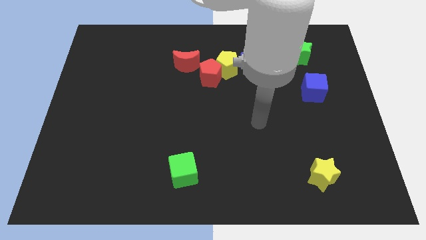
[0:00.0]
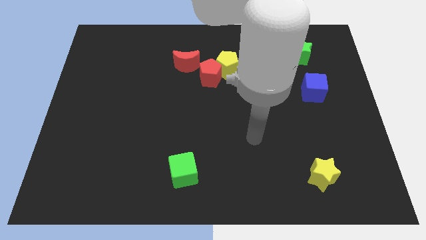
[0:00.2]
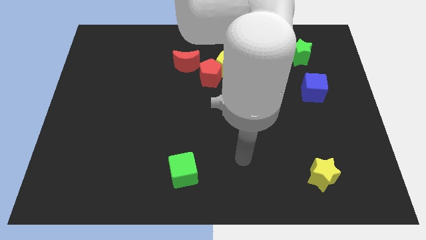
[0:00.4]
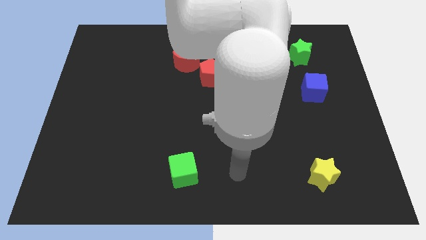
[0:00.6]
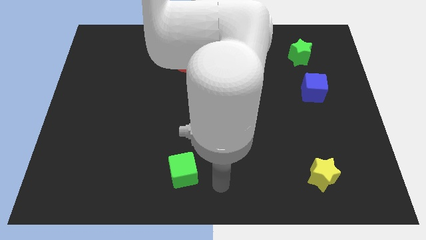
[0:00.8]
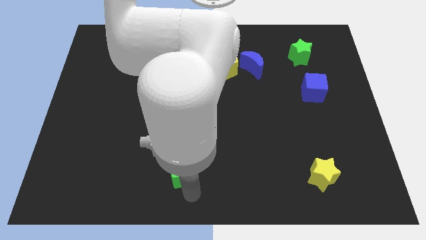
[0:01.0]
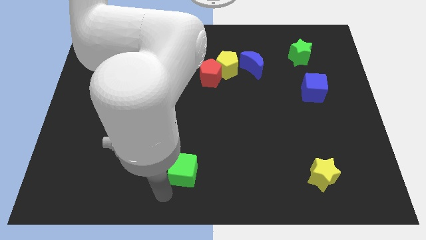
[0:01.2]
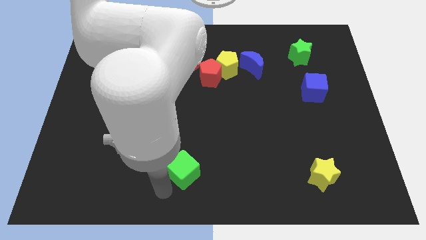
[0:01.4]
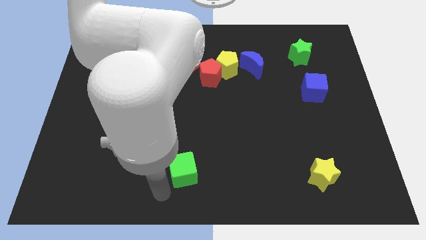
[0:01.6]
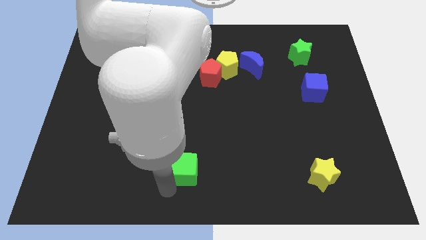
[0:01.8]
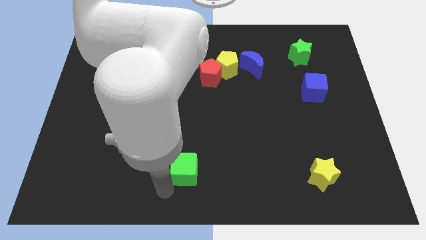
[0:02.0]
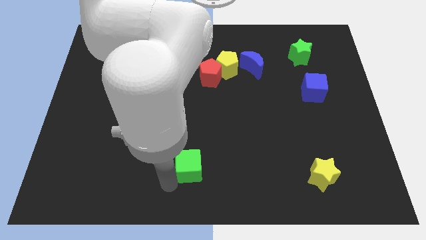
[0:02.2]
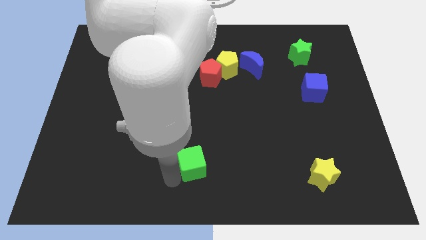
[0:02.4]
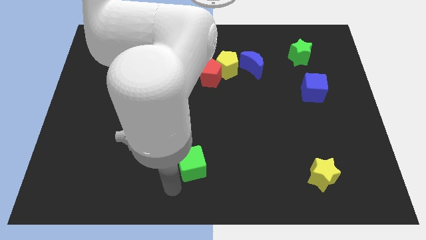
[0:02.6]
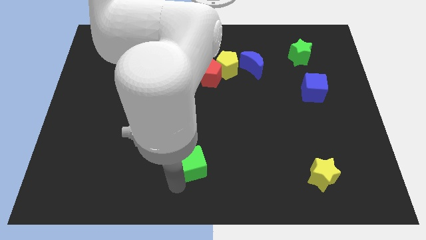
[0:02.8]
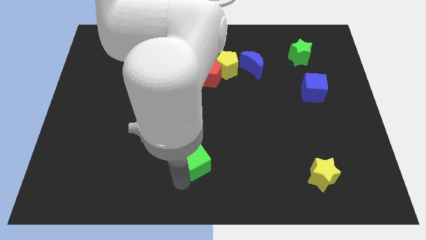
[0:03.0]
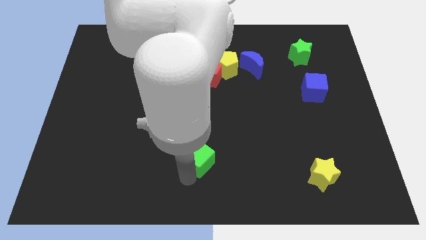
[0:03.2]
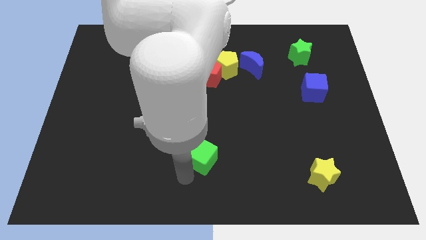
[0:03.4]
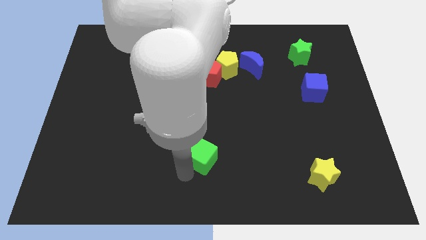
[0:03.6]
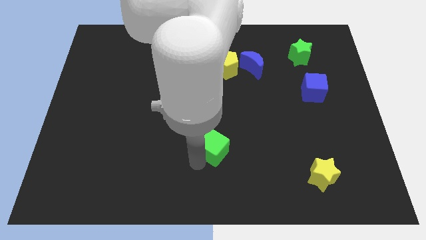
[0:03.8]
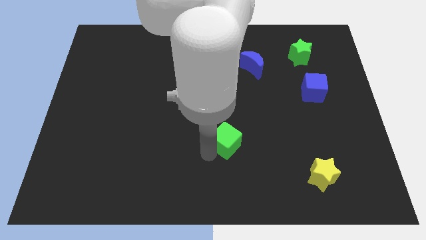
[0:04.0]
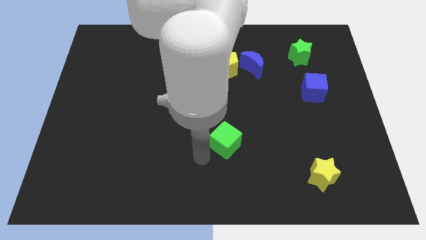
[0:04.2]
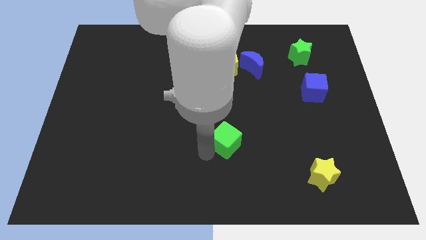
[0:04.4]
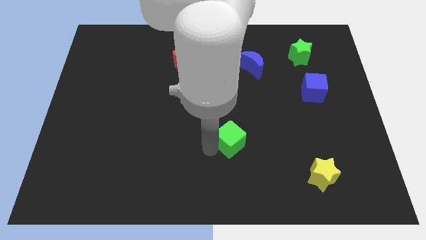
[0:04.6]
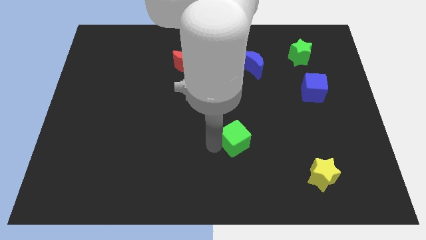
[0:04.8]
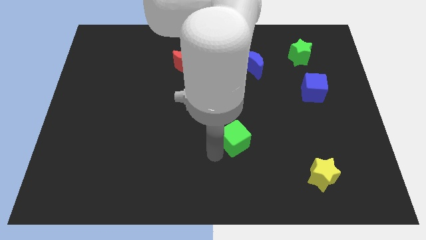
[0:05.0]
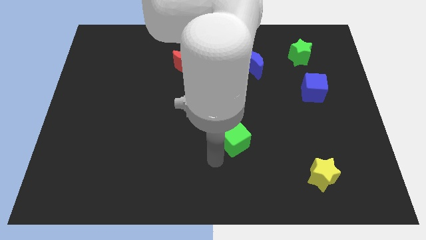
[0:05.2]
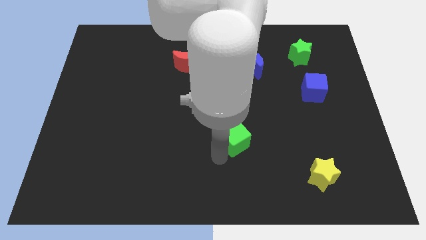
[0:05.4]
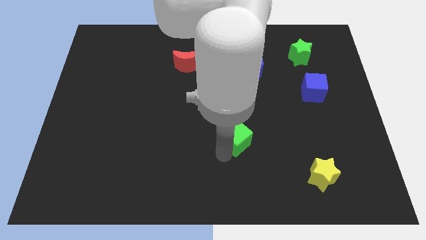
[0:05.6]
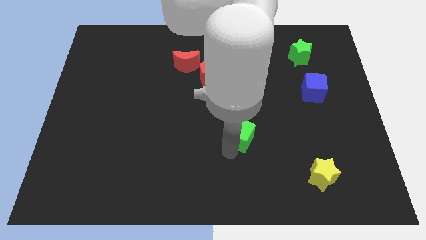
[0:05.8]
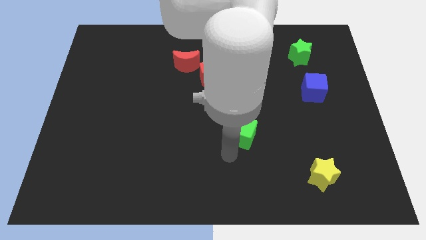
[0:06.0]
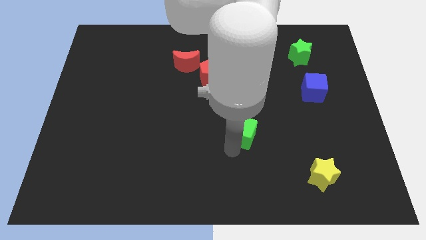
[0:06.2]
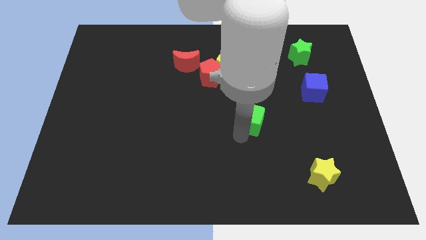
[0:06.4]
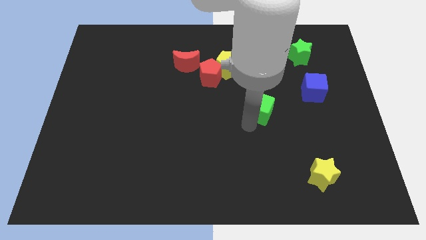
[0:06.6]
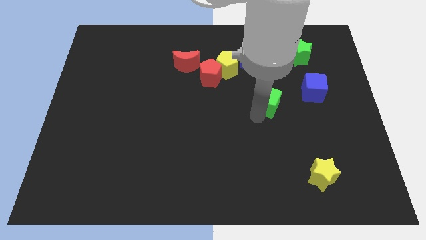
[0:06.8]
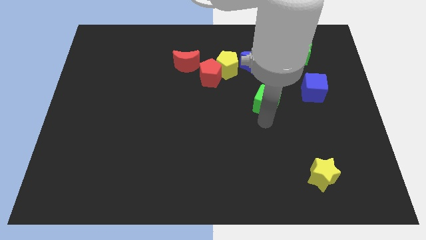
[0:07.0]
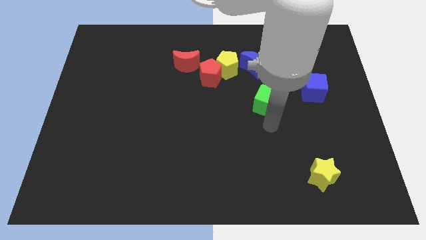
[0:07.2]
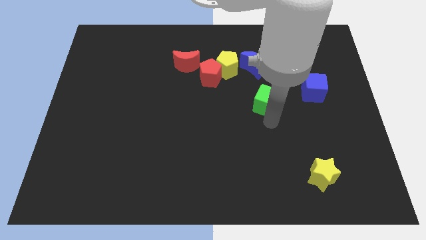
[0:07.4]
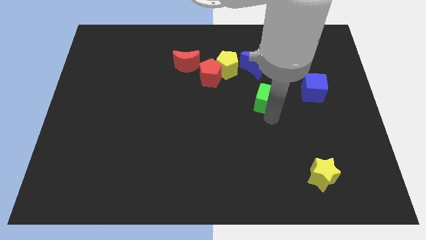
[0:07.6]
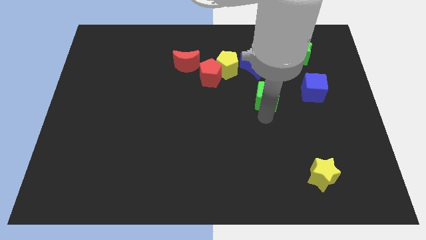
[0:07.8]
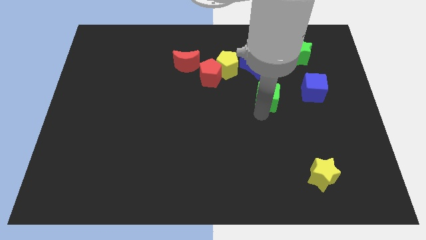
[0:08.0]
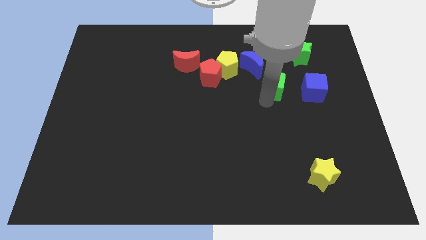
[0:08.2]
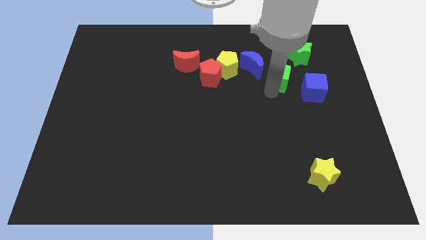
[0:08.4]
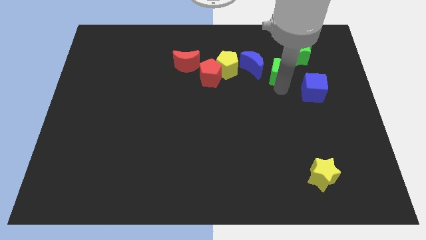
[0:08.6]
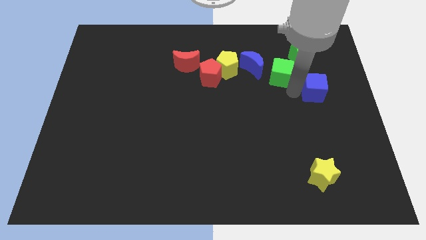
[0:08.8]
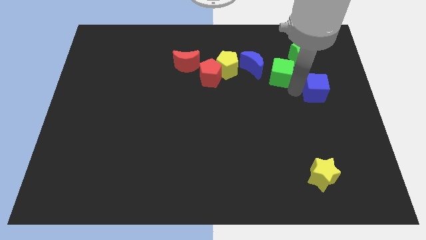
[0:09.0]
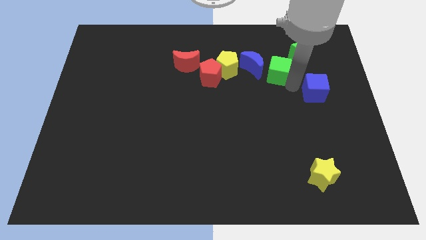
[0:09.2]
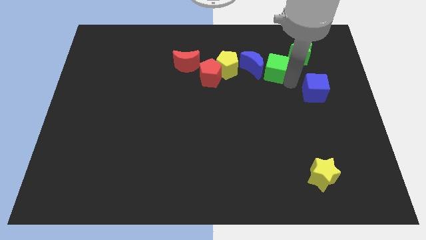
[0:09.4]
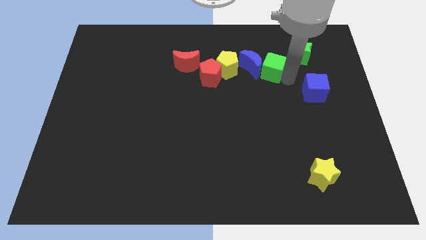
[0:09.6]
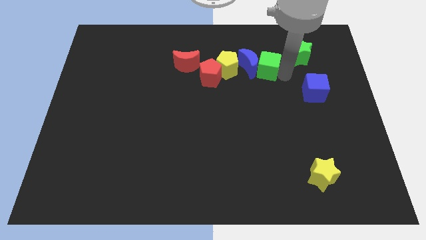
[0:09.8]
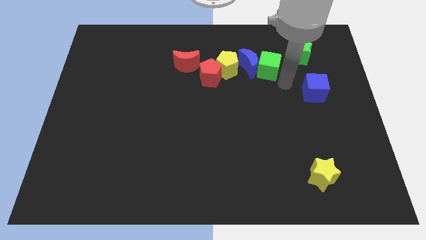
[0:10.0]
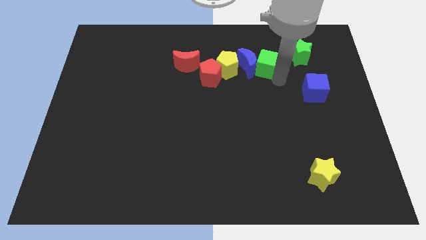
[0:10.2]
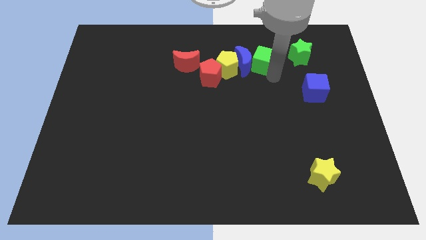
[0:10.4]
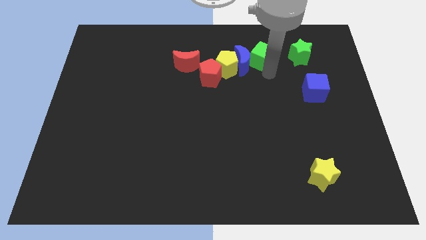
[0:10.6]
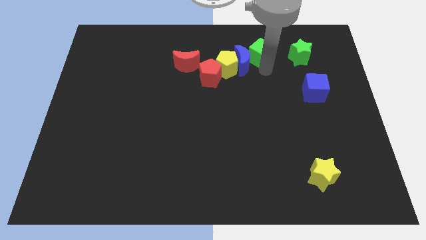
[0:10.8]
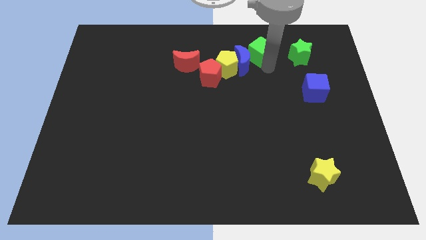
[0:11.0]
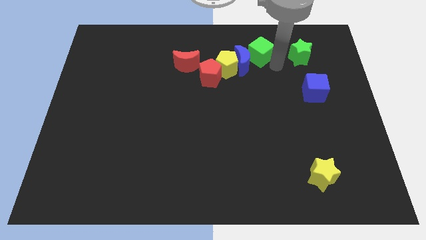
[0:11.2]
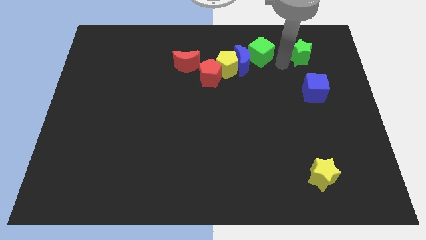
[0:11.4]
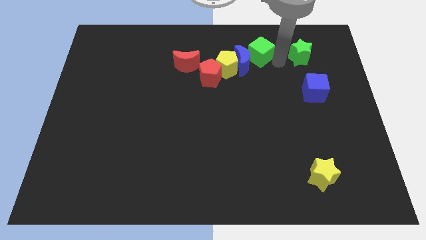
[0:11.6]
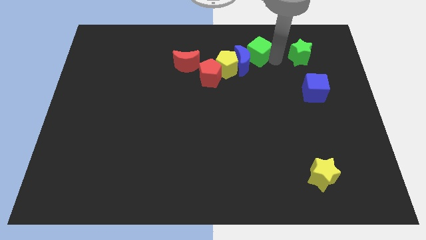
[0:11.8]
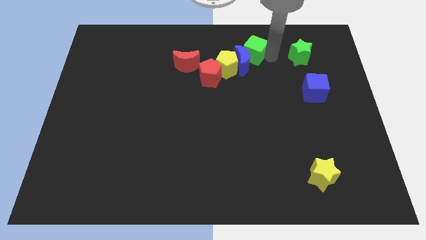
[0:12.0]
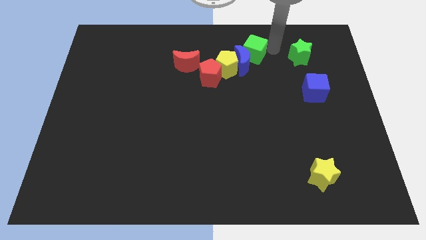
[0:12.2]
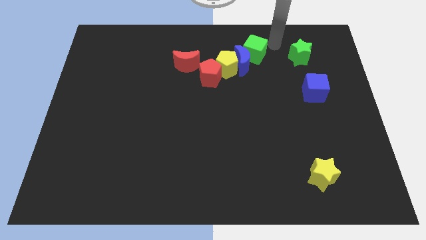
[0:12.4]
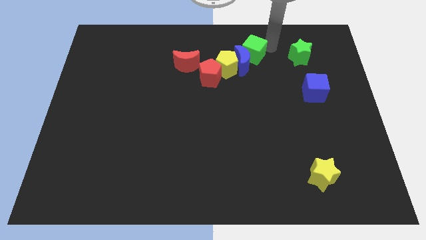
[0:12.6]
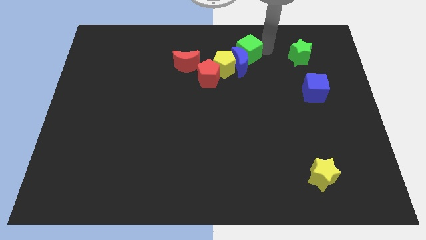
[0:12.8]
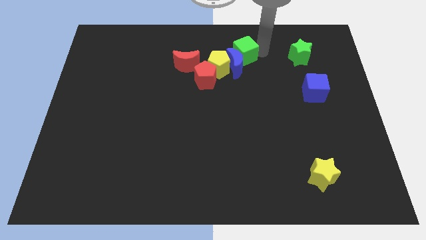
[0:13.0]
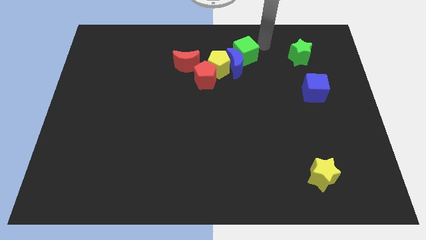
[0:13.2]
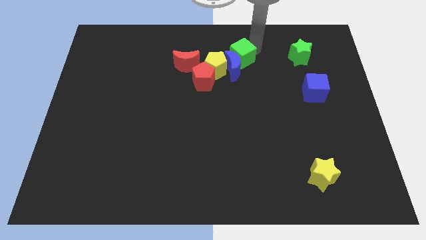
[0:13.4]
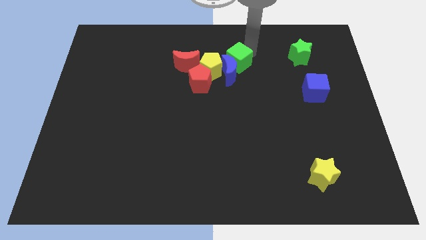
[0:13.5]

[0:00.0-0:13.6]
push the green cube to the top right of the red pentagon

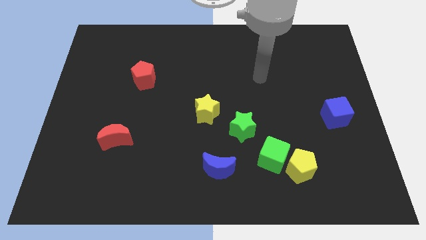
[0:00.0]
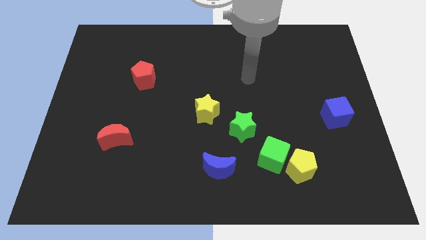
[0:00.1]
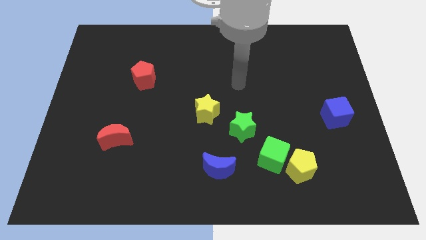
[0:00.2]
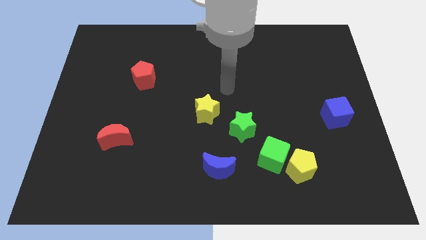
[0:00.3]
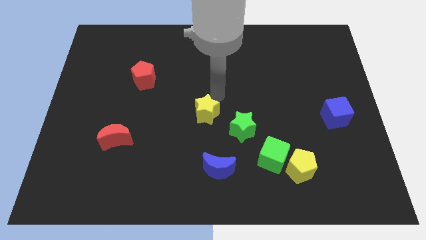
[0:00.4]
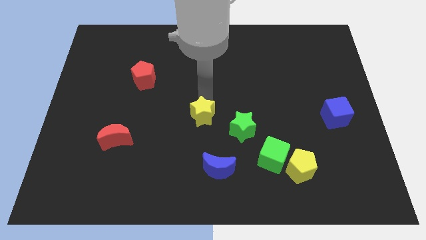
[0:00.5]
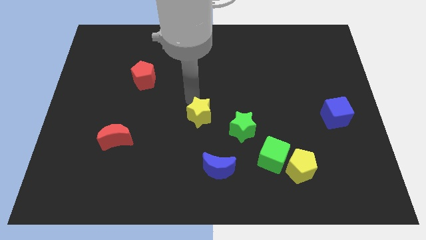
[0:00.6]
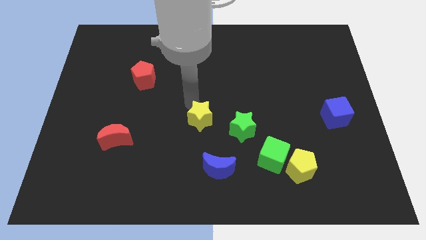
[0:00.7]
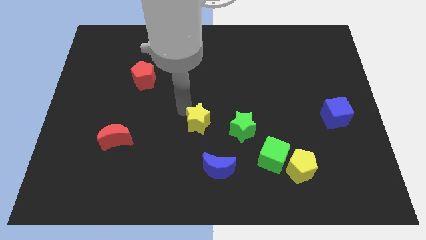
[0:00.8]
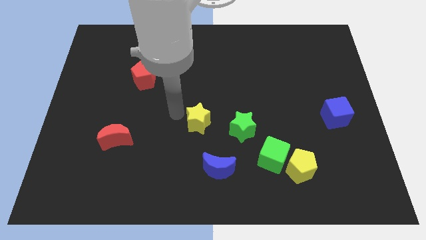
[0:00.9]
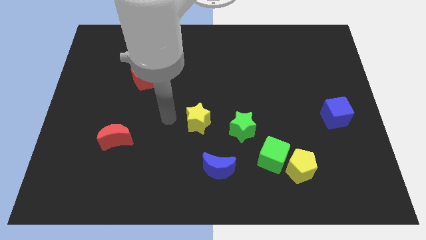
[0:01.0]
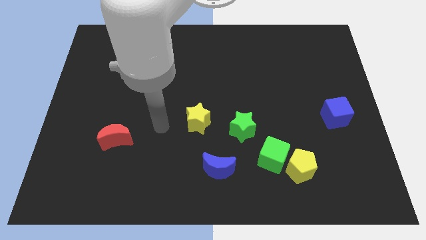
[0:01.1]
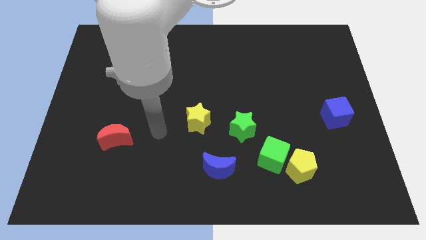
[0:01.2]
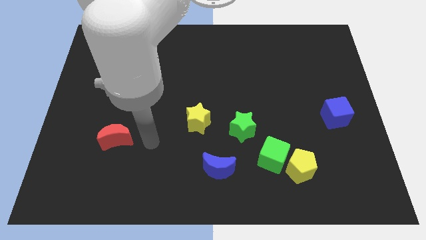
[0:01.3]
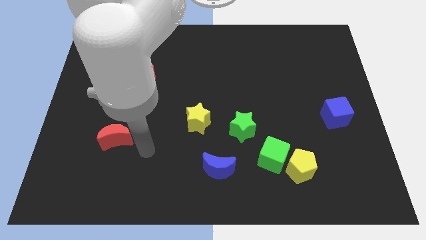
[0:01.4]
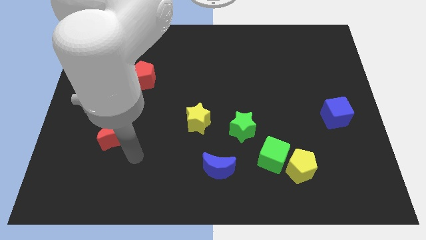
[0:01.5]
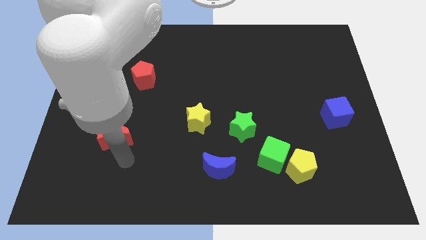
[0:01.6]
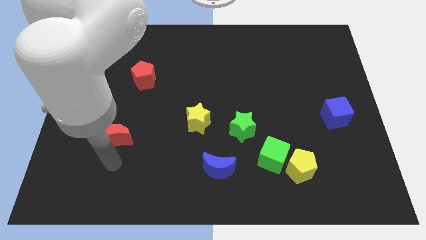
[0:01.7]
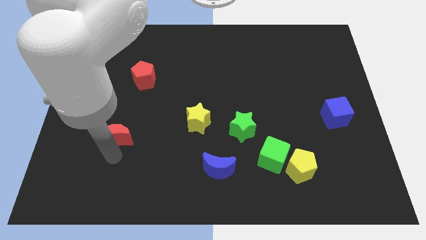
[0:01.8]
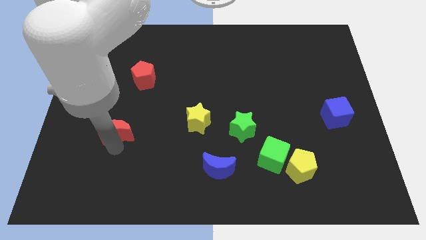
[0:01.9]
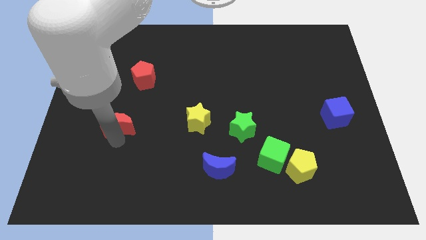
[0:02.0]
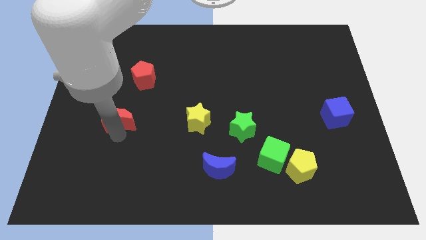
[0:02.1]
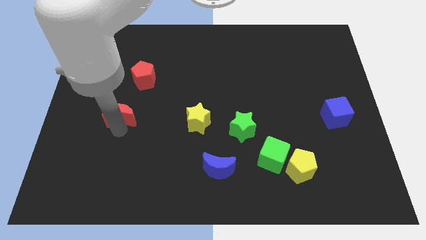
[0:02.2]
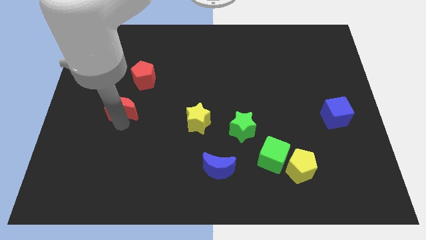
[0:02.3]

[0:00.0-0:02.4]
move the red moon to the bottom left of the red pentagon
